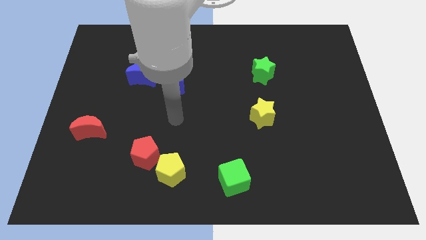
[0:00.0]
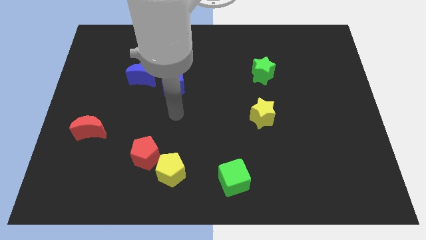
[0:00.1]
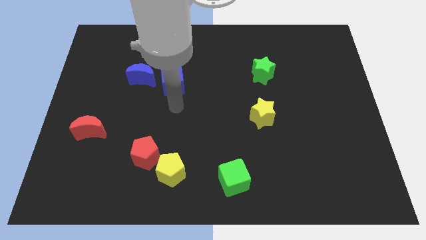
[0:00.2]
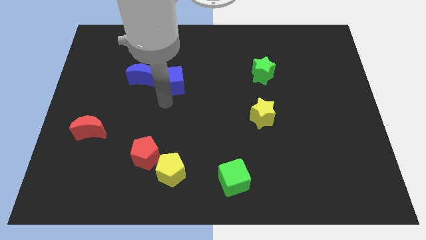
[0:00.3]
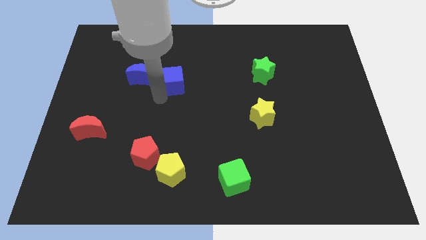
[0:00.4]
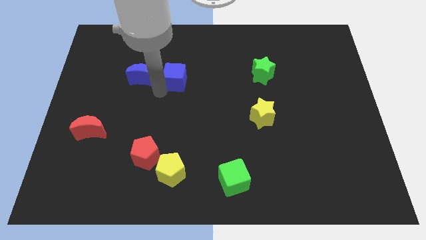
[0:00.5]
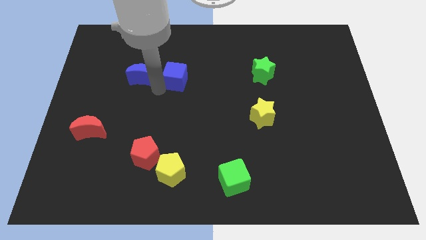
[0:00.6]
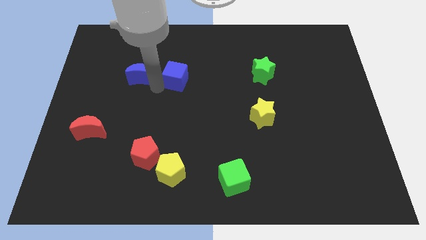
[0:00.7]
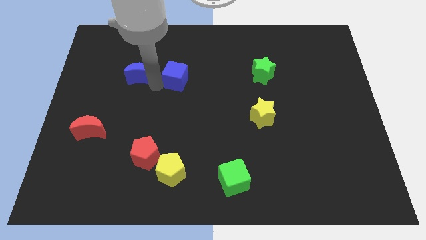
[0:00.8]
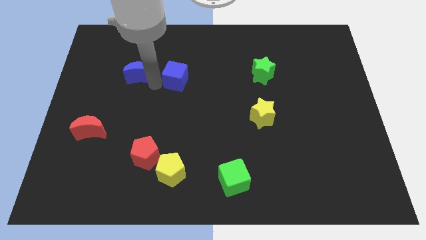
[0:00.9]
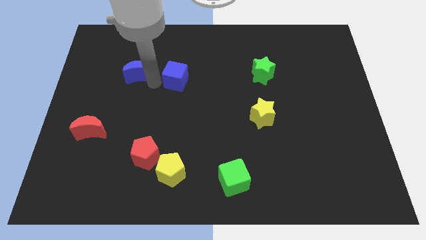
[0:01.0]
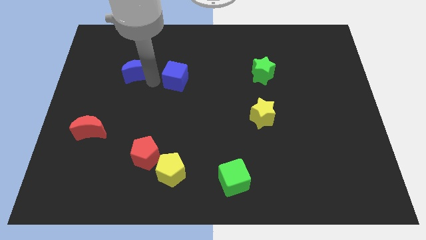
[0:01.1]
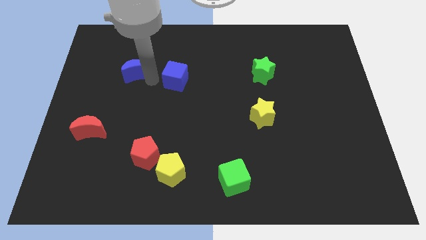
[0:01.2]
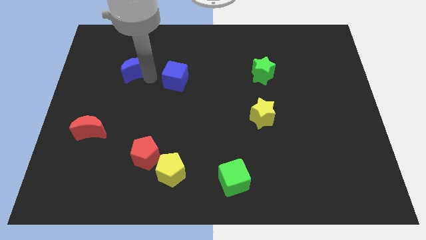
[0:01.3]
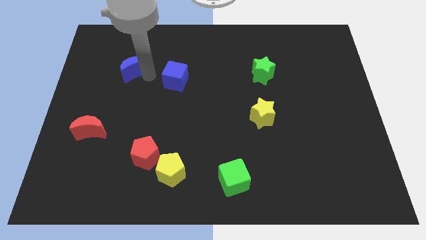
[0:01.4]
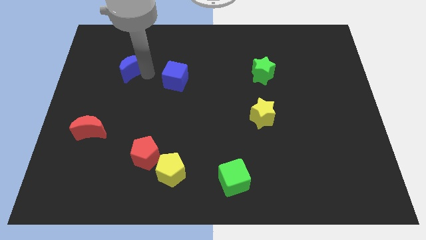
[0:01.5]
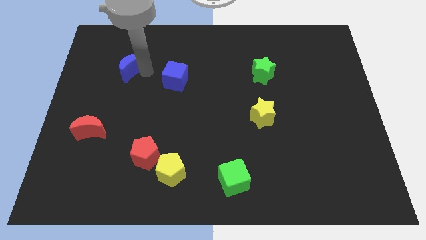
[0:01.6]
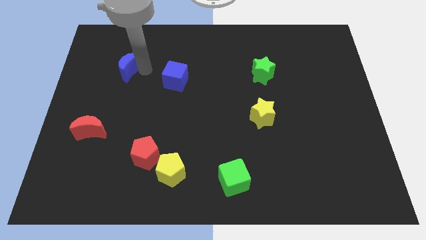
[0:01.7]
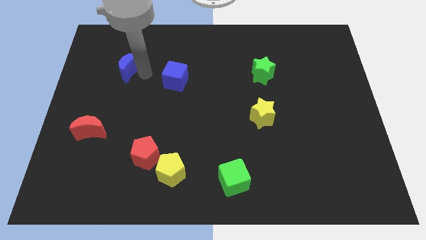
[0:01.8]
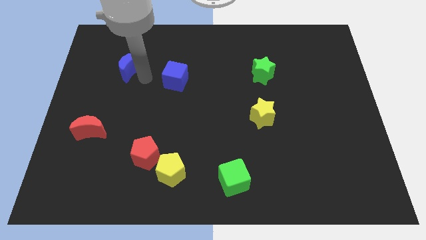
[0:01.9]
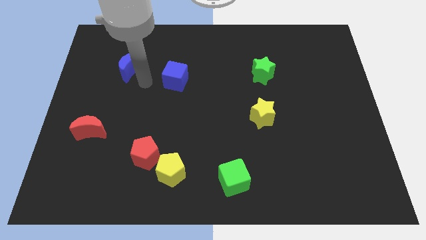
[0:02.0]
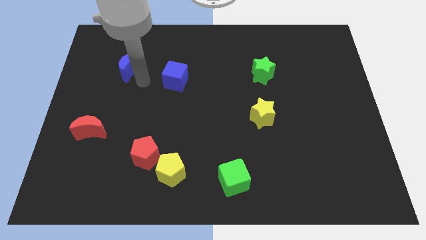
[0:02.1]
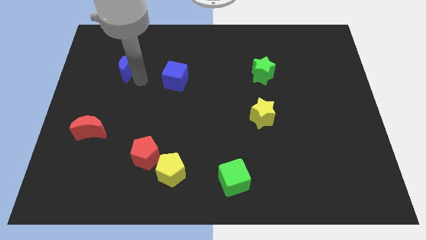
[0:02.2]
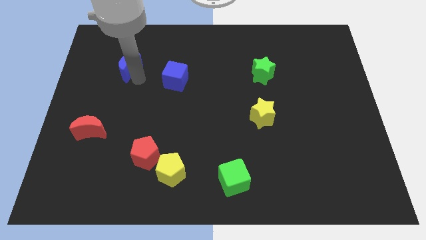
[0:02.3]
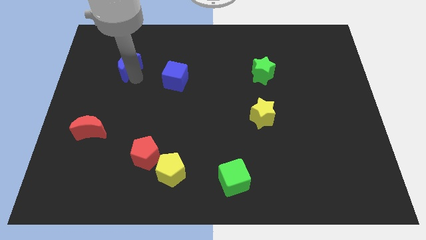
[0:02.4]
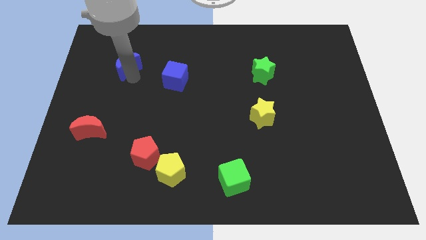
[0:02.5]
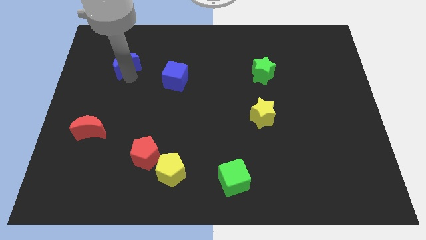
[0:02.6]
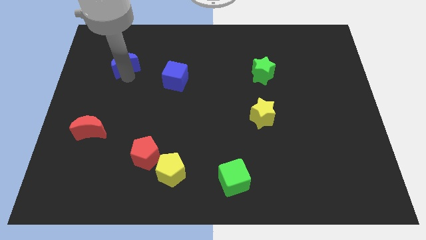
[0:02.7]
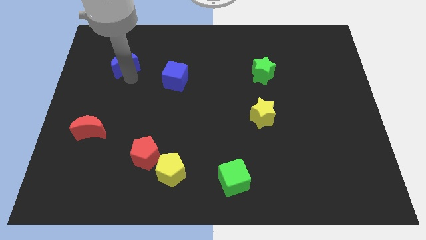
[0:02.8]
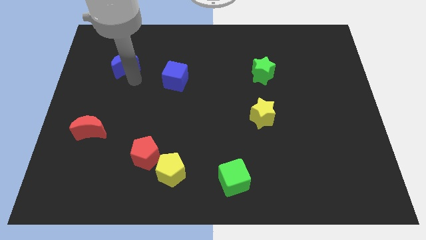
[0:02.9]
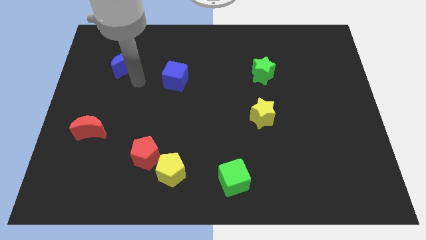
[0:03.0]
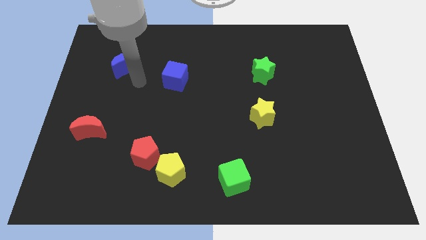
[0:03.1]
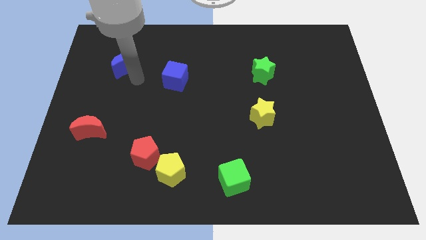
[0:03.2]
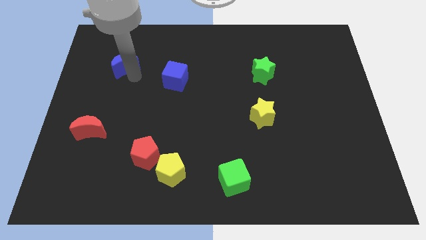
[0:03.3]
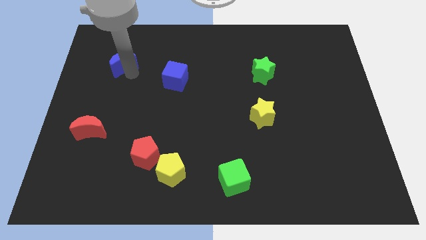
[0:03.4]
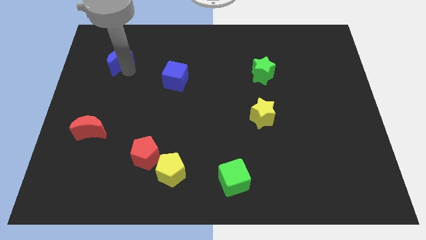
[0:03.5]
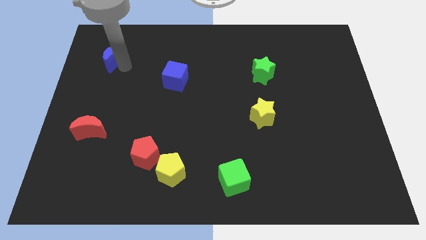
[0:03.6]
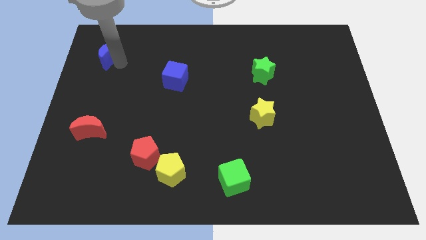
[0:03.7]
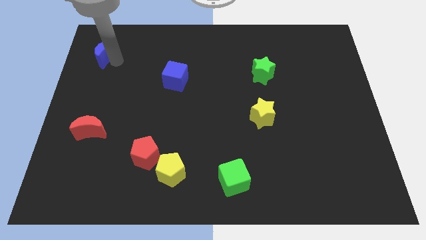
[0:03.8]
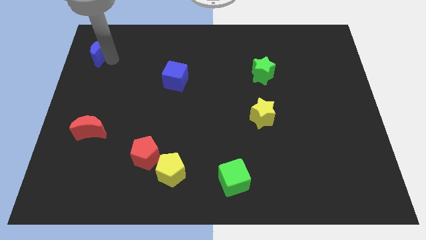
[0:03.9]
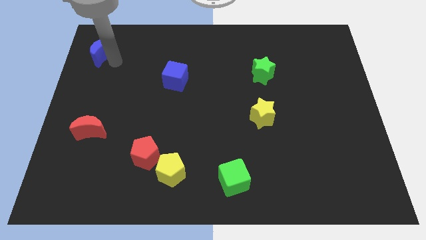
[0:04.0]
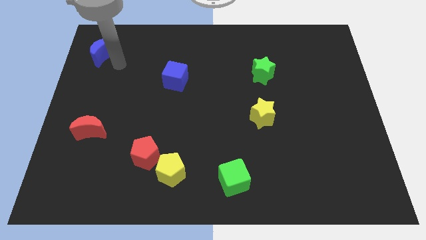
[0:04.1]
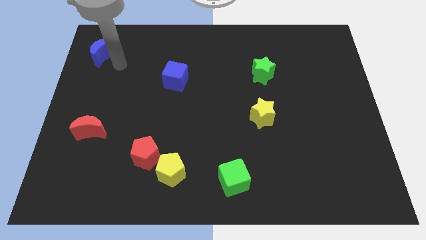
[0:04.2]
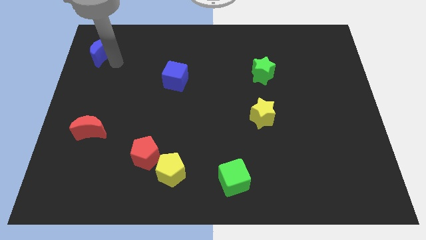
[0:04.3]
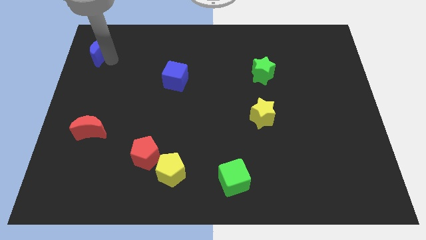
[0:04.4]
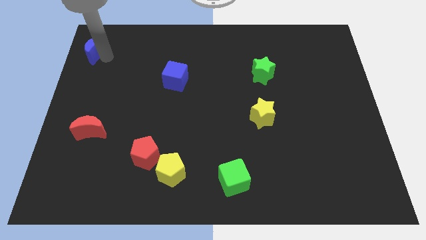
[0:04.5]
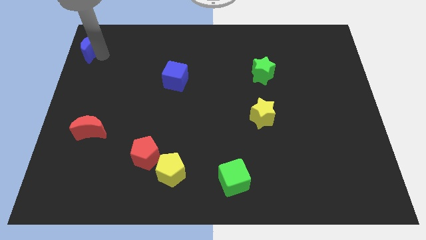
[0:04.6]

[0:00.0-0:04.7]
push the blue moon to the top left

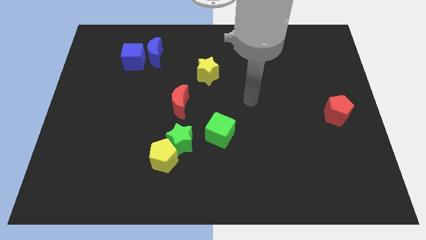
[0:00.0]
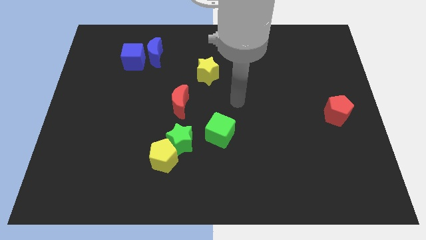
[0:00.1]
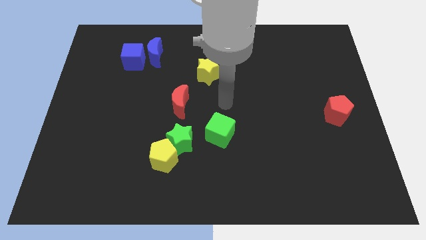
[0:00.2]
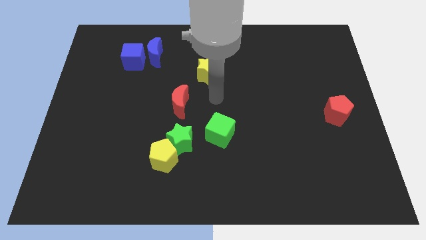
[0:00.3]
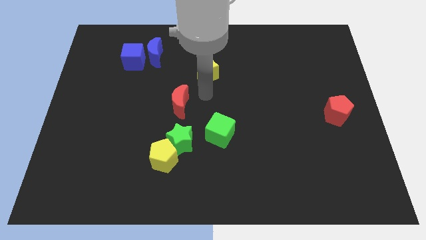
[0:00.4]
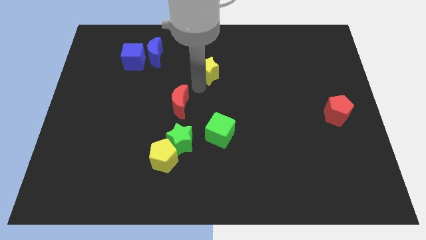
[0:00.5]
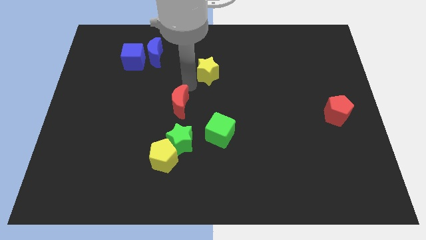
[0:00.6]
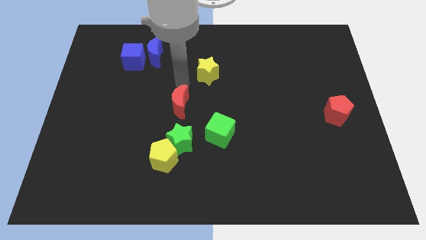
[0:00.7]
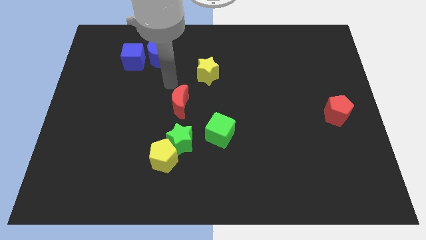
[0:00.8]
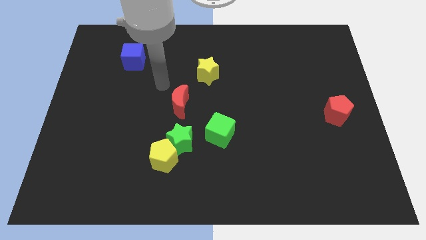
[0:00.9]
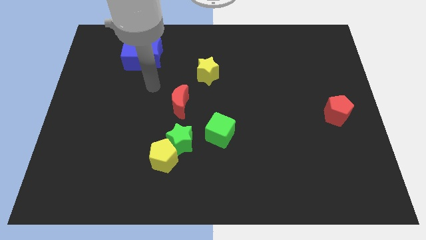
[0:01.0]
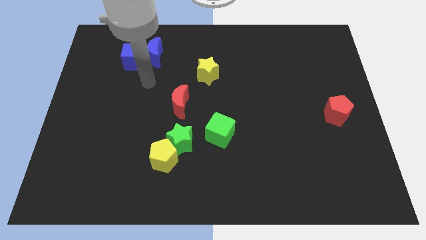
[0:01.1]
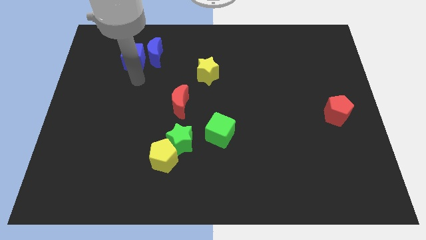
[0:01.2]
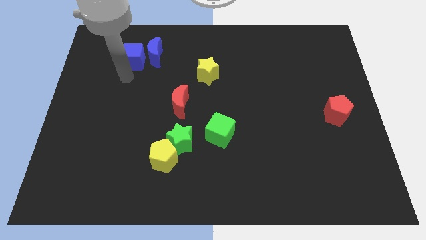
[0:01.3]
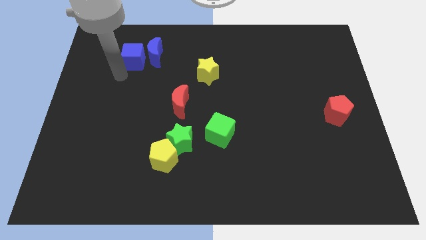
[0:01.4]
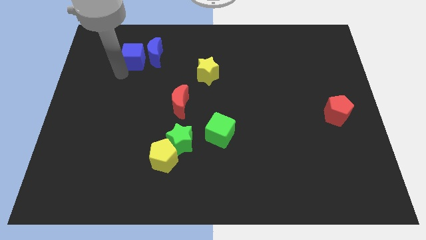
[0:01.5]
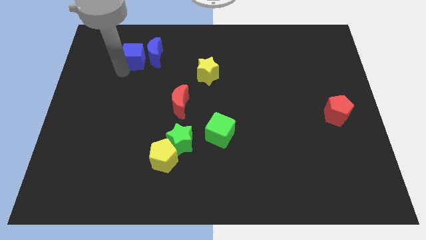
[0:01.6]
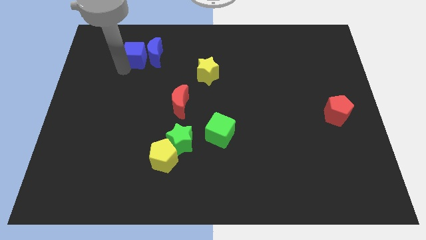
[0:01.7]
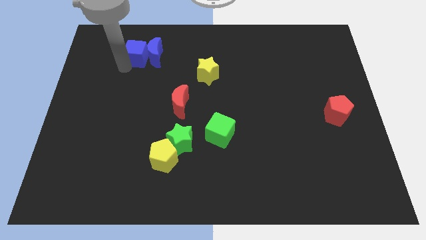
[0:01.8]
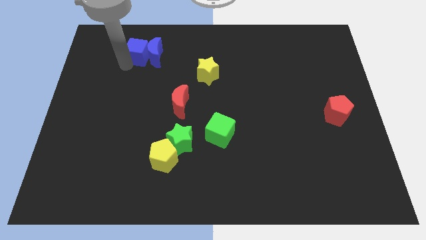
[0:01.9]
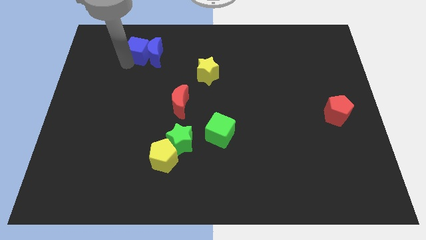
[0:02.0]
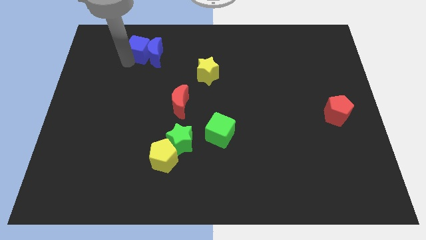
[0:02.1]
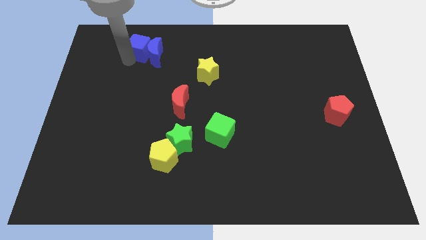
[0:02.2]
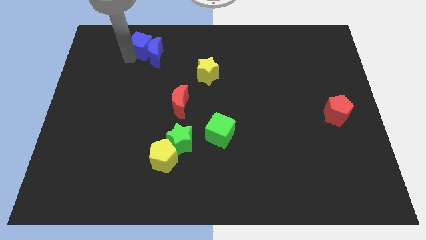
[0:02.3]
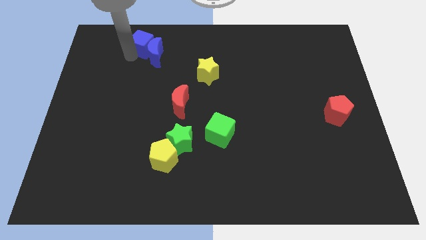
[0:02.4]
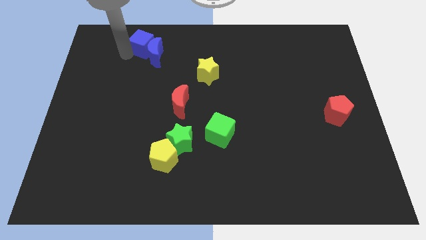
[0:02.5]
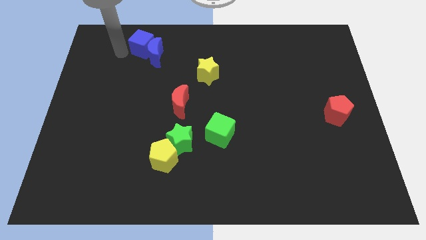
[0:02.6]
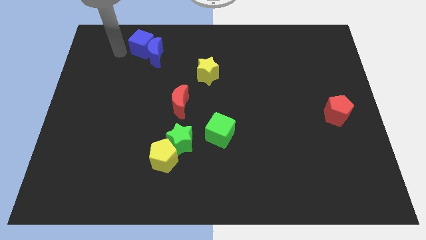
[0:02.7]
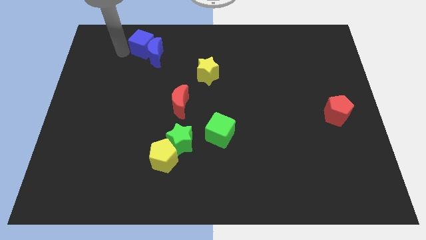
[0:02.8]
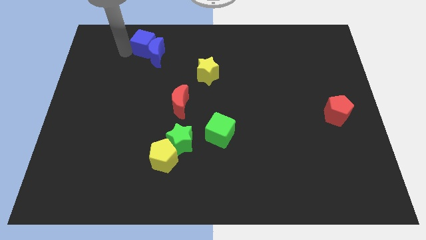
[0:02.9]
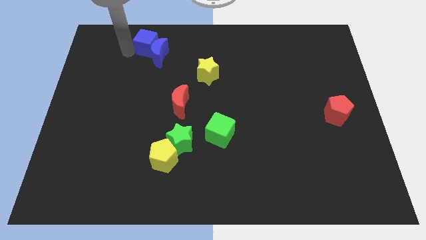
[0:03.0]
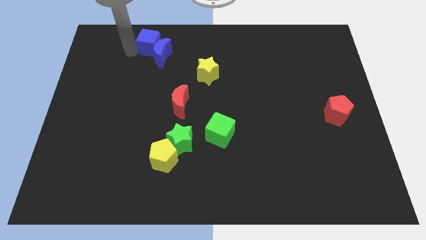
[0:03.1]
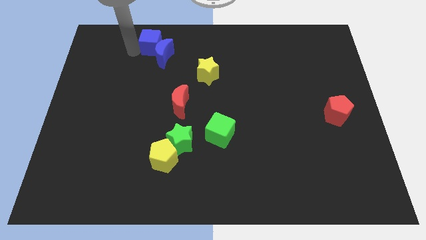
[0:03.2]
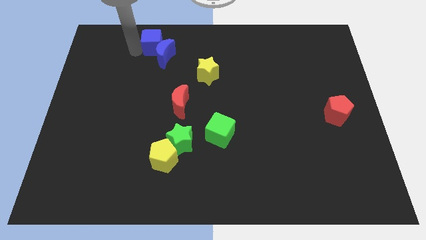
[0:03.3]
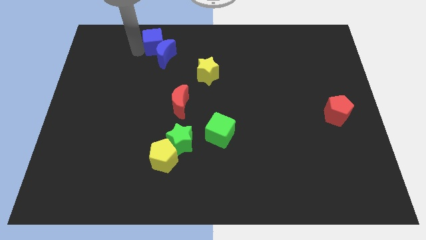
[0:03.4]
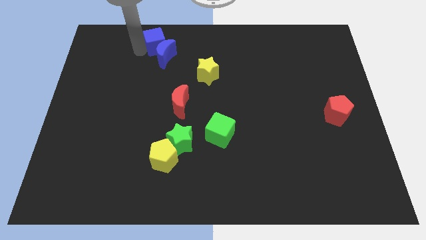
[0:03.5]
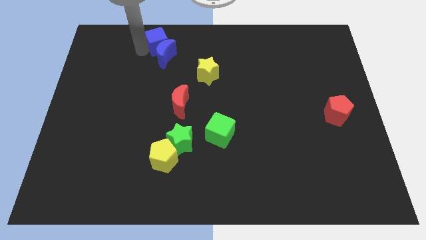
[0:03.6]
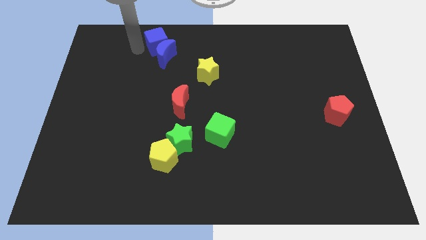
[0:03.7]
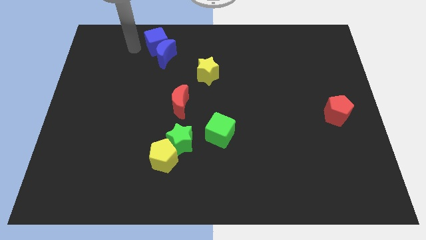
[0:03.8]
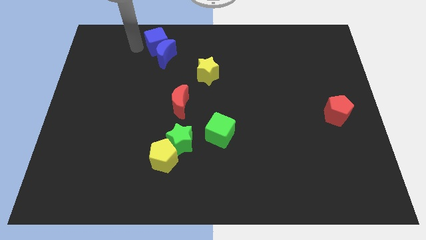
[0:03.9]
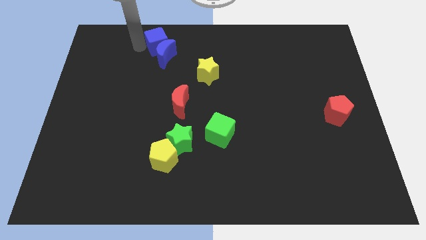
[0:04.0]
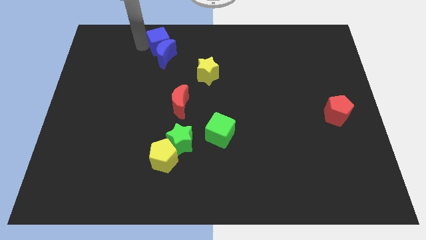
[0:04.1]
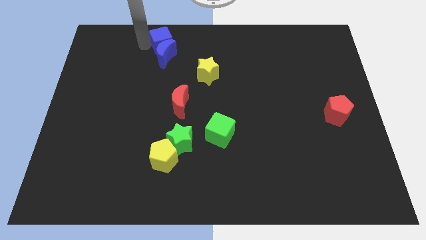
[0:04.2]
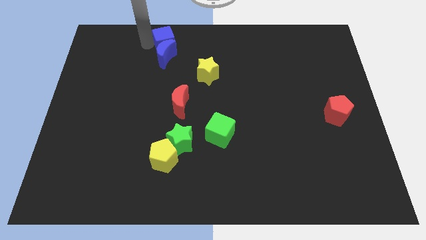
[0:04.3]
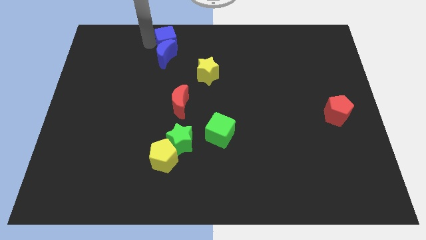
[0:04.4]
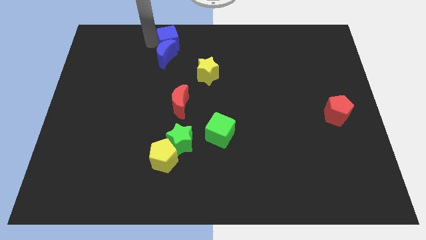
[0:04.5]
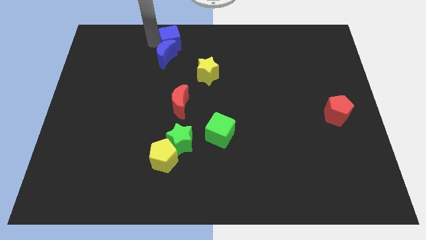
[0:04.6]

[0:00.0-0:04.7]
slide the blue cube to the towards your base
